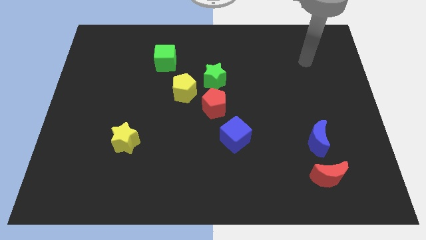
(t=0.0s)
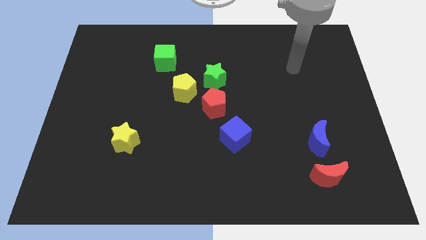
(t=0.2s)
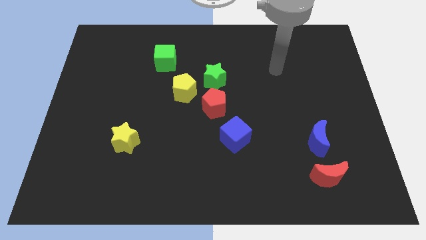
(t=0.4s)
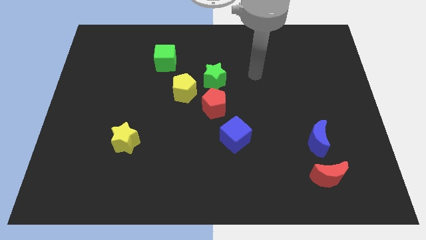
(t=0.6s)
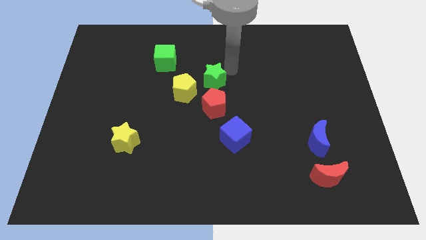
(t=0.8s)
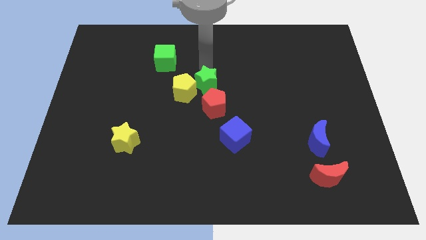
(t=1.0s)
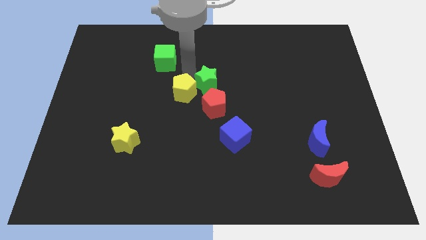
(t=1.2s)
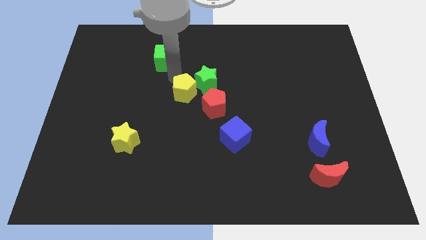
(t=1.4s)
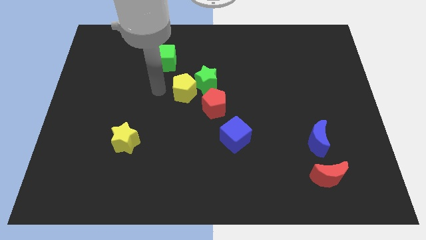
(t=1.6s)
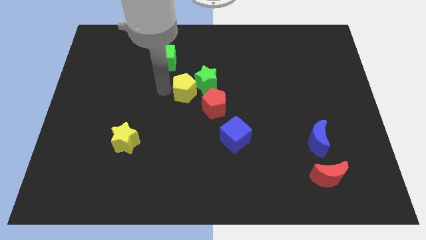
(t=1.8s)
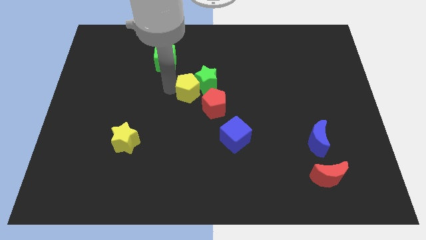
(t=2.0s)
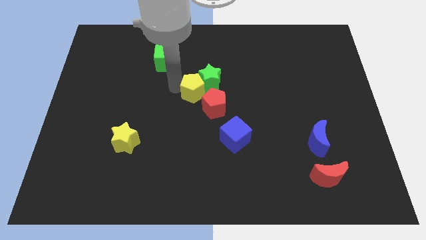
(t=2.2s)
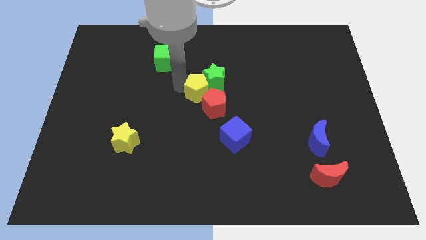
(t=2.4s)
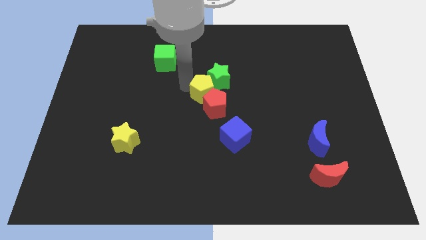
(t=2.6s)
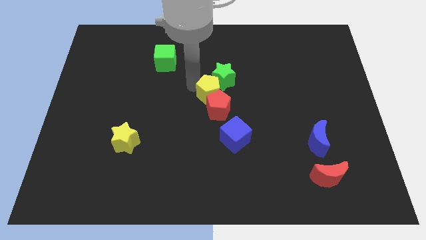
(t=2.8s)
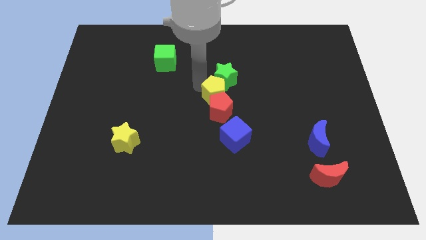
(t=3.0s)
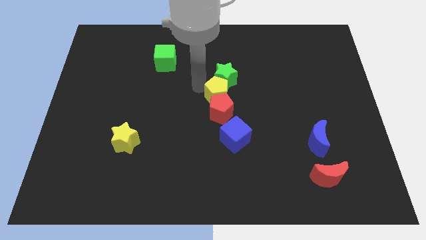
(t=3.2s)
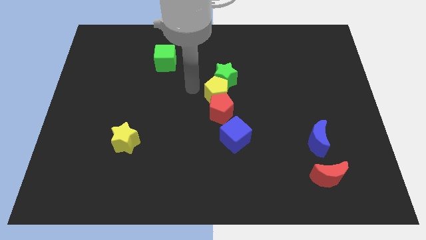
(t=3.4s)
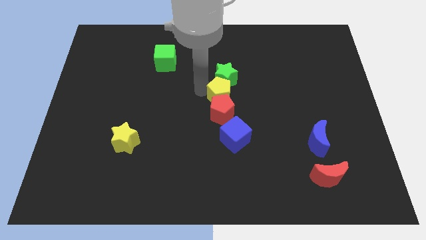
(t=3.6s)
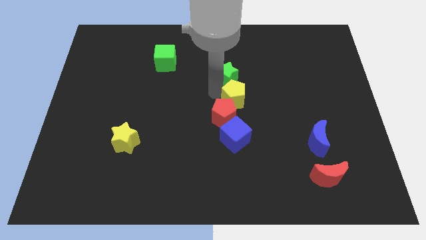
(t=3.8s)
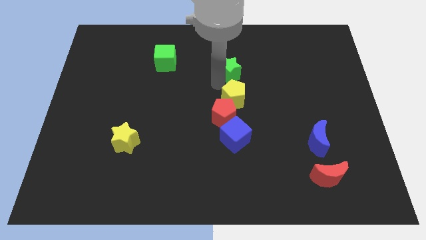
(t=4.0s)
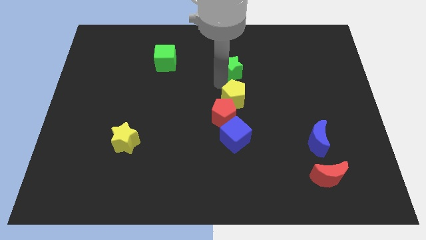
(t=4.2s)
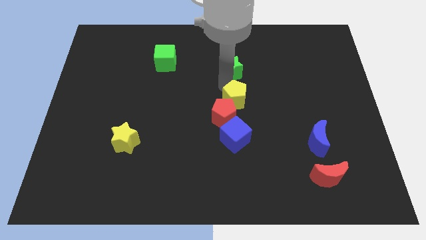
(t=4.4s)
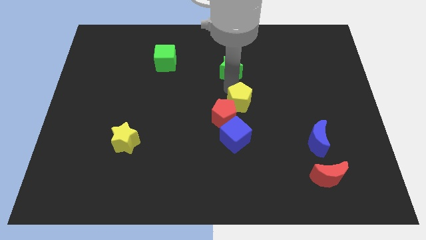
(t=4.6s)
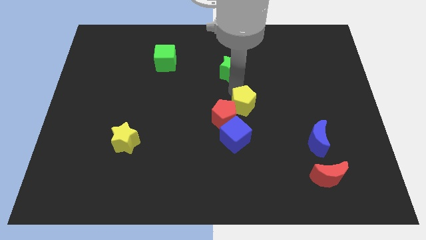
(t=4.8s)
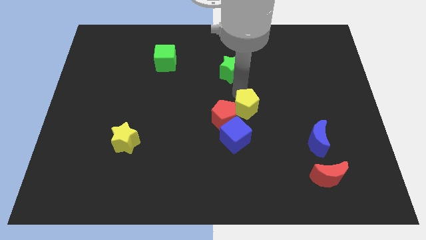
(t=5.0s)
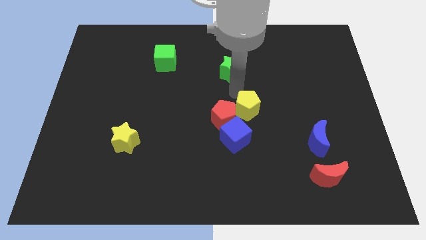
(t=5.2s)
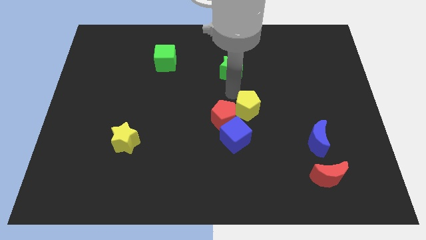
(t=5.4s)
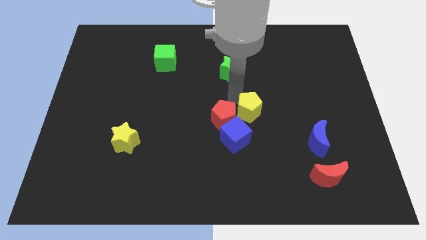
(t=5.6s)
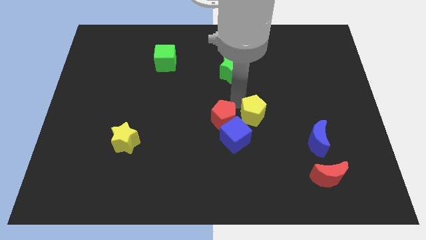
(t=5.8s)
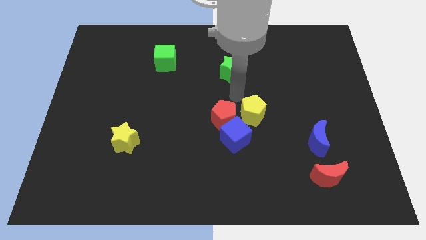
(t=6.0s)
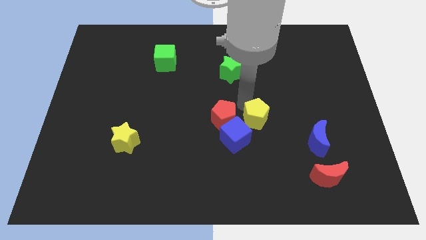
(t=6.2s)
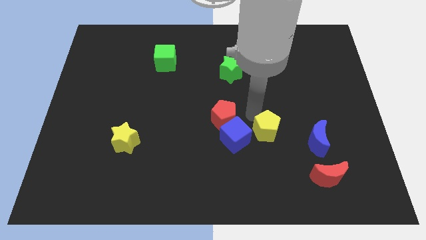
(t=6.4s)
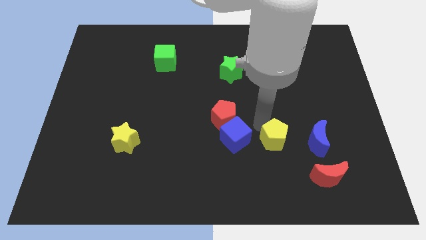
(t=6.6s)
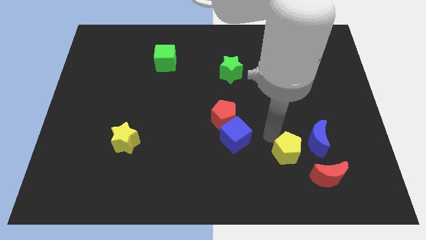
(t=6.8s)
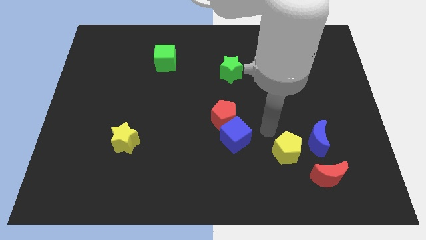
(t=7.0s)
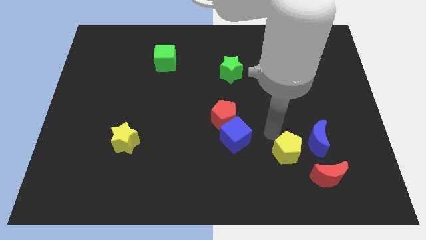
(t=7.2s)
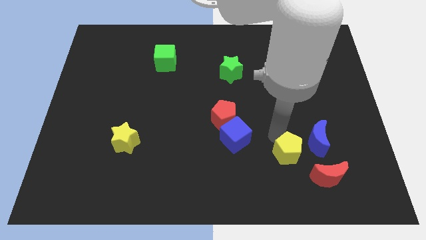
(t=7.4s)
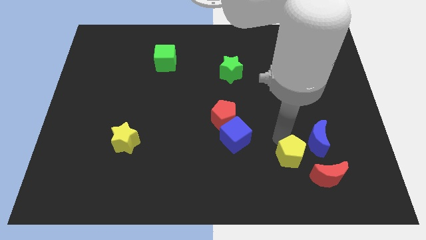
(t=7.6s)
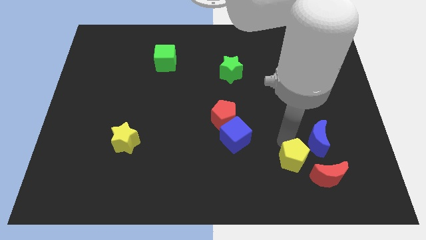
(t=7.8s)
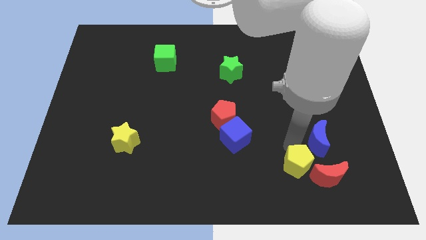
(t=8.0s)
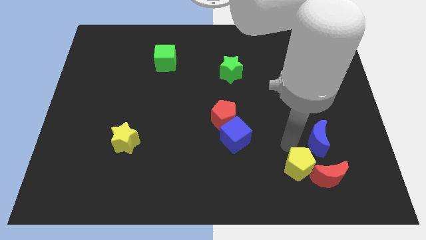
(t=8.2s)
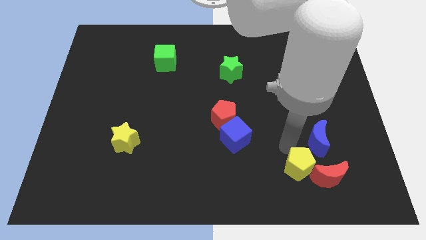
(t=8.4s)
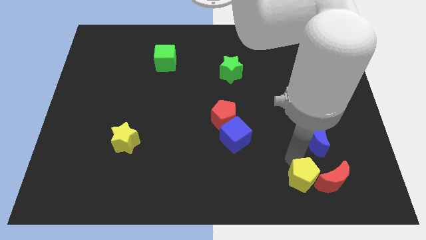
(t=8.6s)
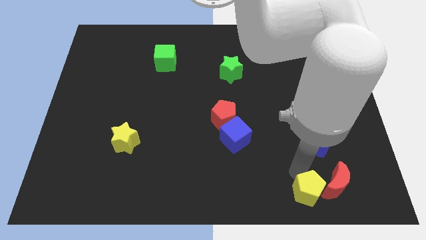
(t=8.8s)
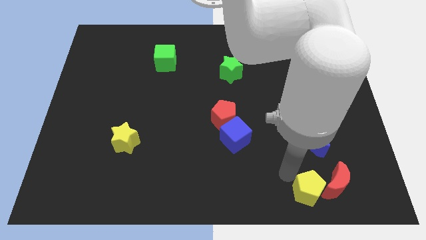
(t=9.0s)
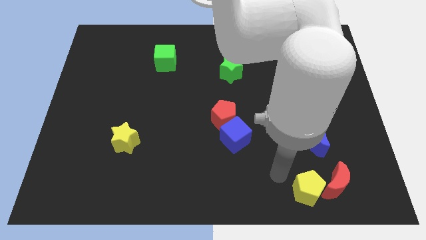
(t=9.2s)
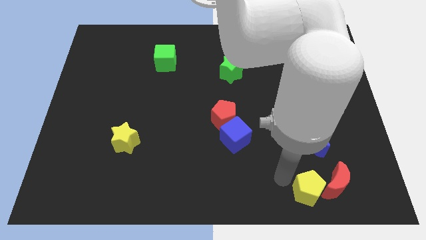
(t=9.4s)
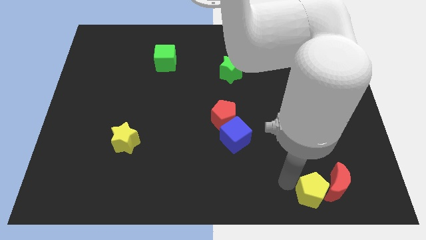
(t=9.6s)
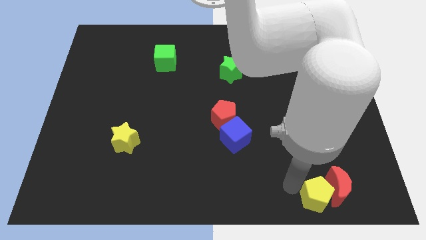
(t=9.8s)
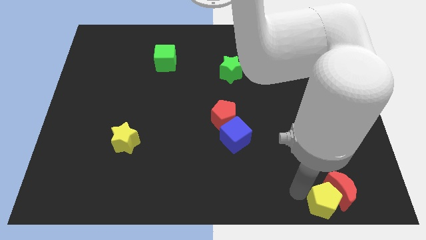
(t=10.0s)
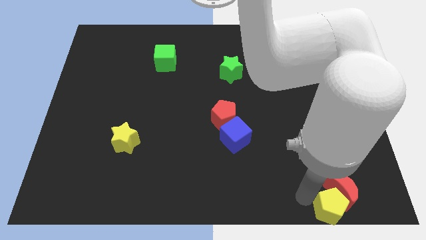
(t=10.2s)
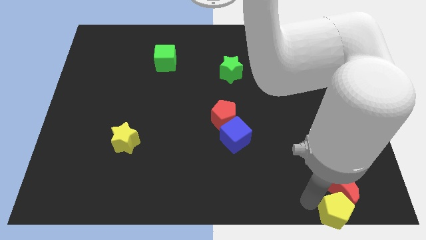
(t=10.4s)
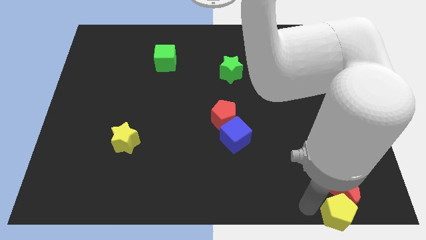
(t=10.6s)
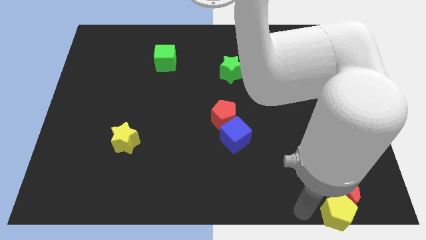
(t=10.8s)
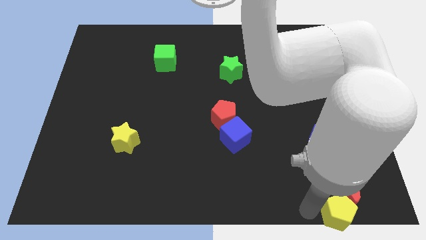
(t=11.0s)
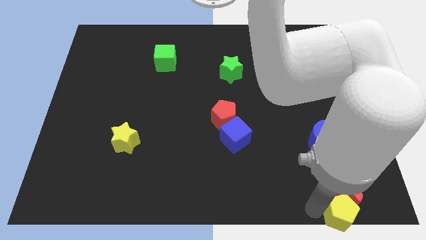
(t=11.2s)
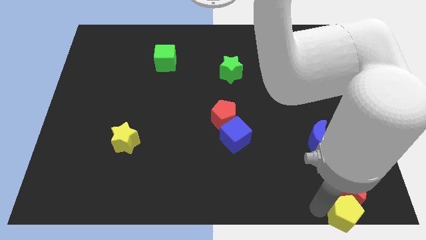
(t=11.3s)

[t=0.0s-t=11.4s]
put the yellow pentagon to the bottom right corner
